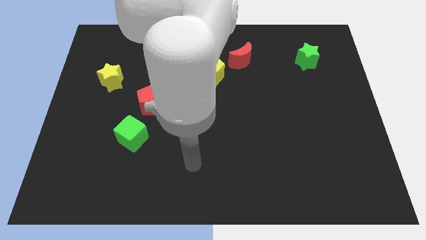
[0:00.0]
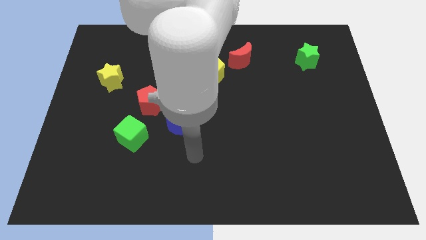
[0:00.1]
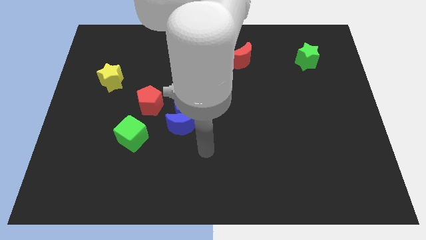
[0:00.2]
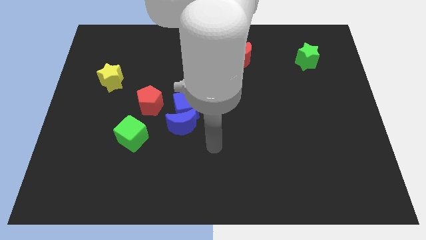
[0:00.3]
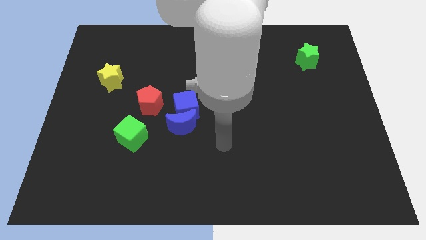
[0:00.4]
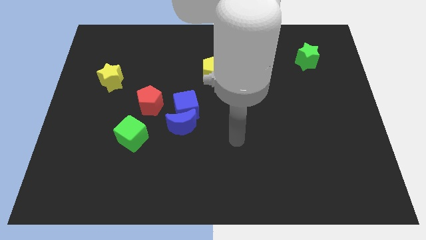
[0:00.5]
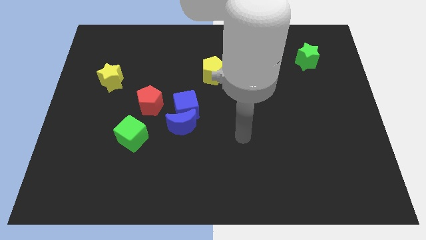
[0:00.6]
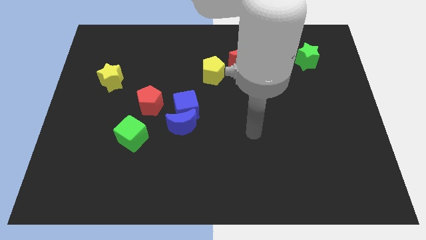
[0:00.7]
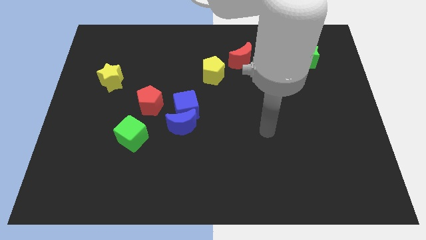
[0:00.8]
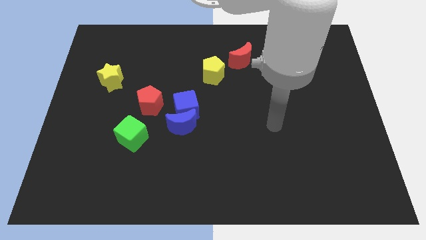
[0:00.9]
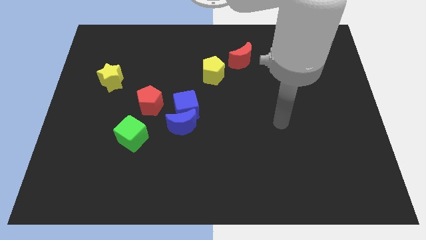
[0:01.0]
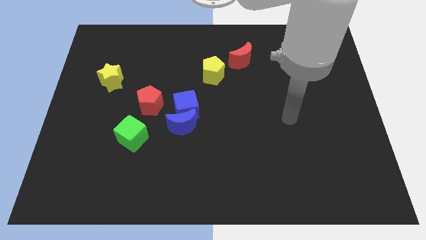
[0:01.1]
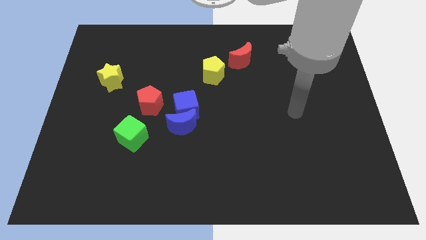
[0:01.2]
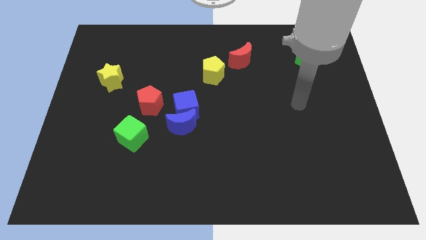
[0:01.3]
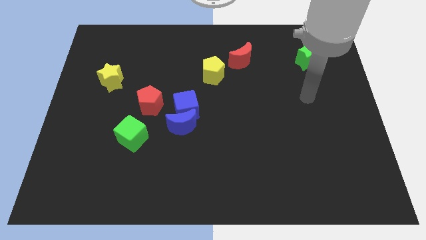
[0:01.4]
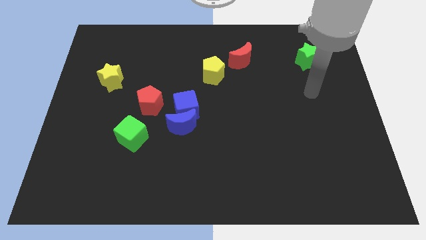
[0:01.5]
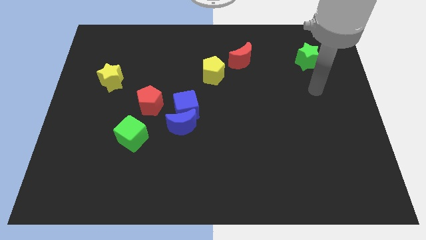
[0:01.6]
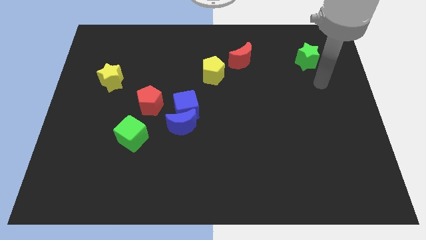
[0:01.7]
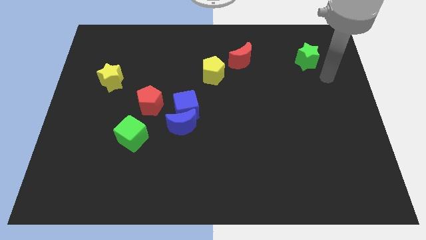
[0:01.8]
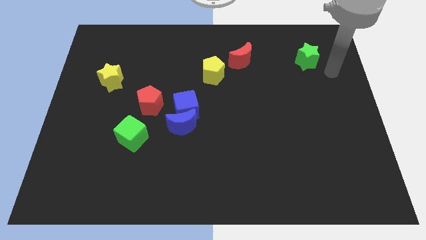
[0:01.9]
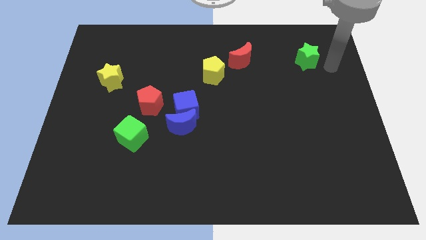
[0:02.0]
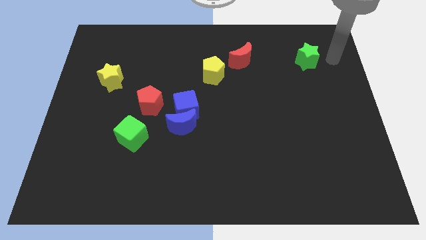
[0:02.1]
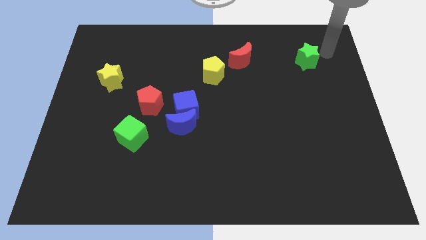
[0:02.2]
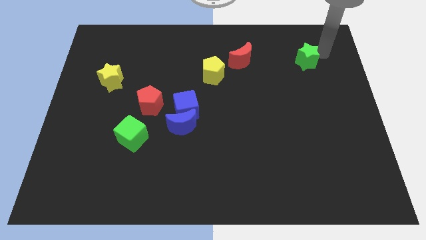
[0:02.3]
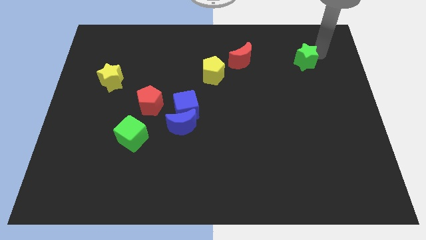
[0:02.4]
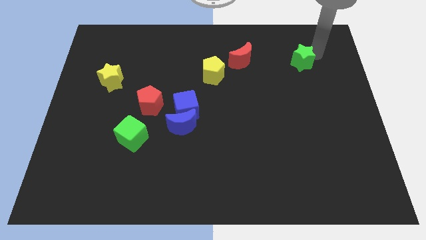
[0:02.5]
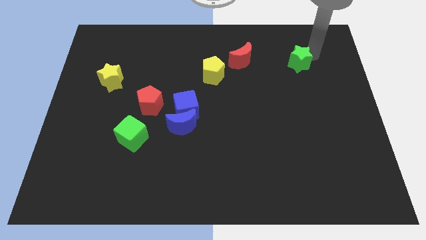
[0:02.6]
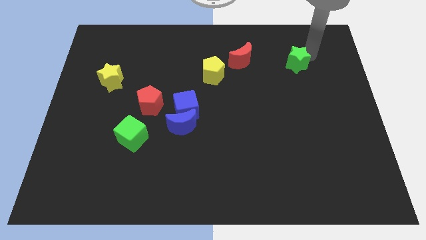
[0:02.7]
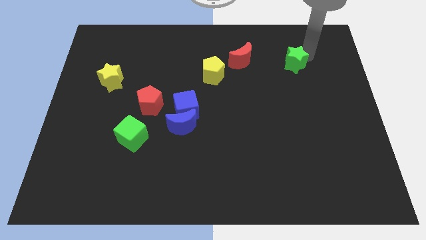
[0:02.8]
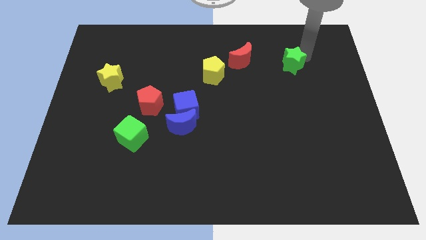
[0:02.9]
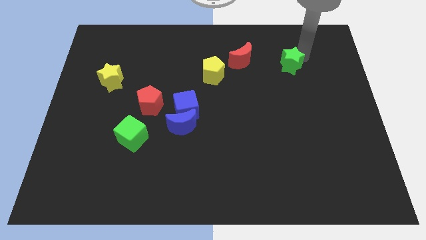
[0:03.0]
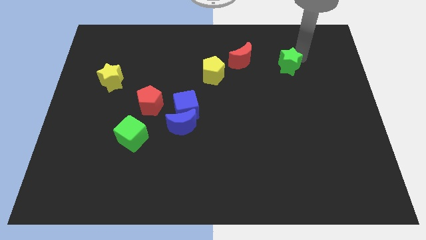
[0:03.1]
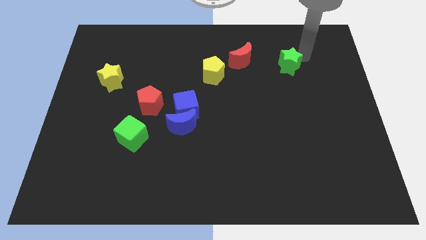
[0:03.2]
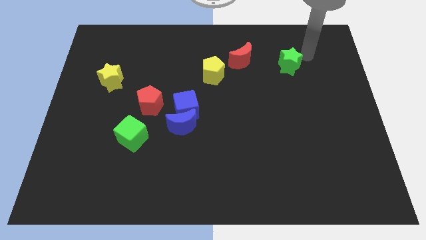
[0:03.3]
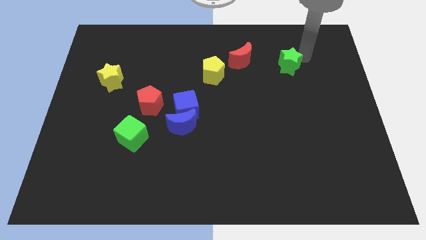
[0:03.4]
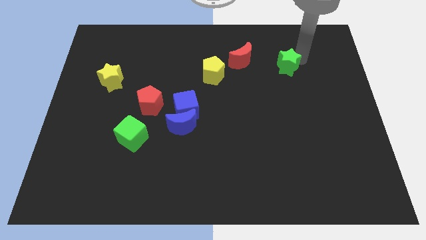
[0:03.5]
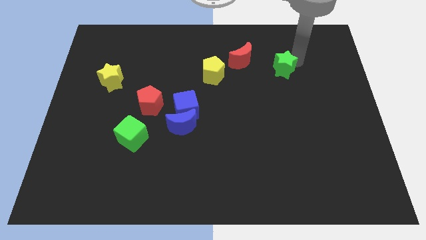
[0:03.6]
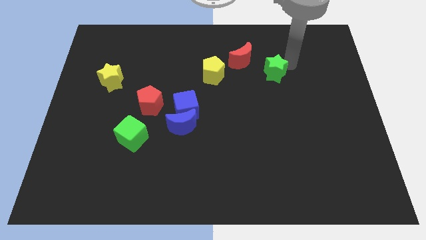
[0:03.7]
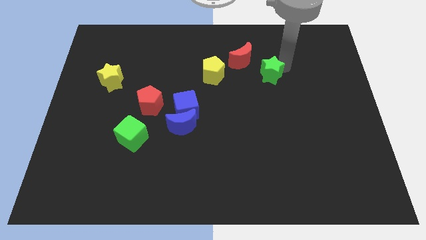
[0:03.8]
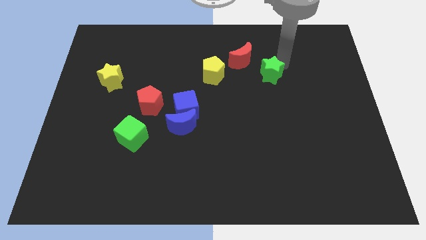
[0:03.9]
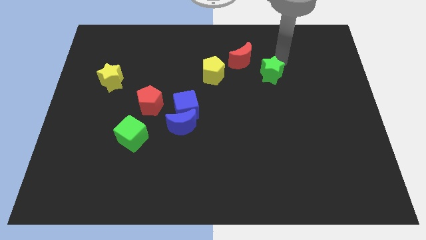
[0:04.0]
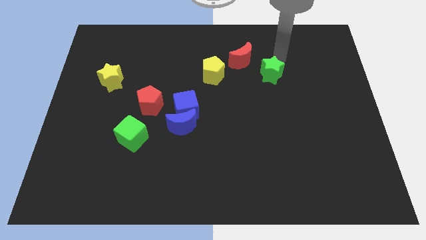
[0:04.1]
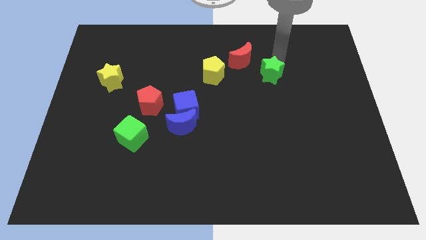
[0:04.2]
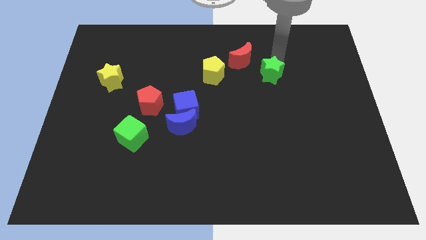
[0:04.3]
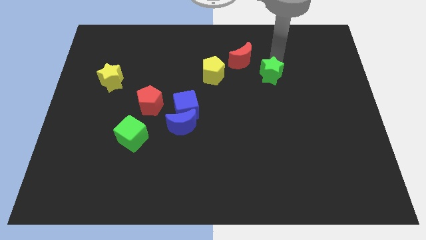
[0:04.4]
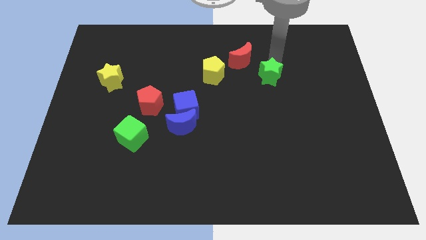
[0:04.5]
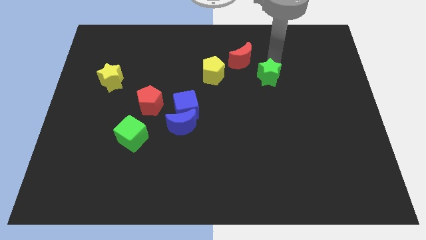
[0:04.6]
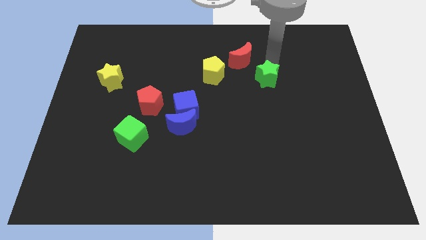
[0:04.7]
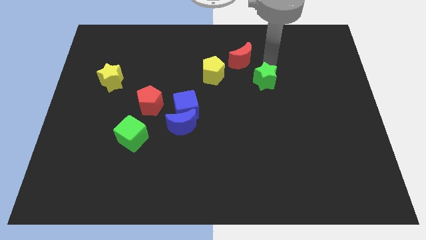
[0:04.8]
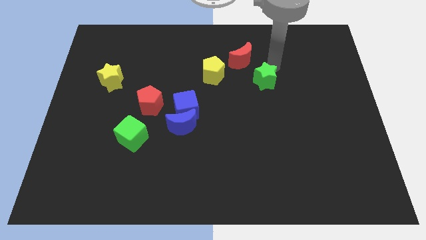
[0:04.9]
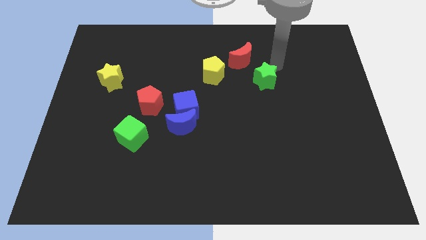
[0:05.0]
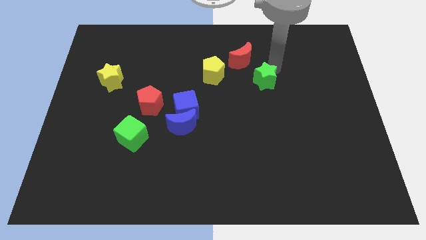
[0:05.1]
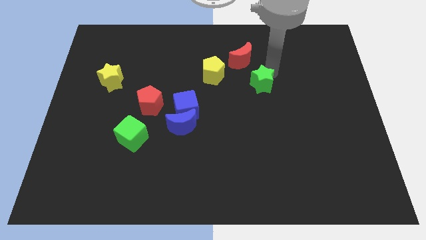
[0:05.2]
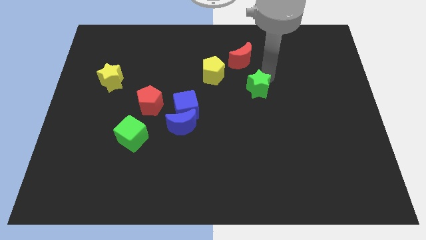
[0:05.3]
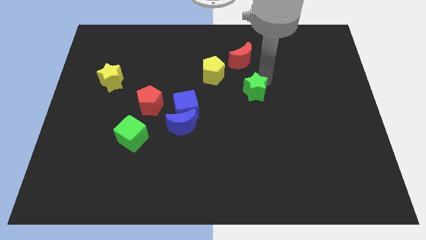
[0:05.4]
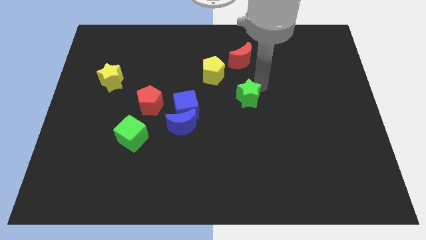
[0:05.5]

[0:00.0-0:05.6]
slide the green star down and to the left diagonally

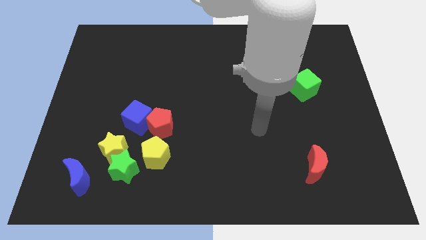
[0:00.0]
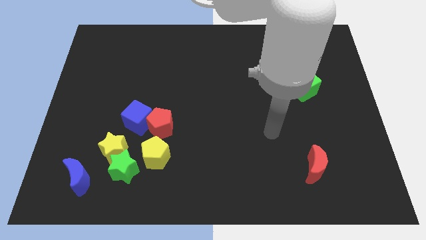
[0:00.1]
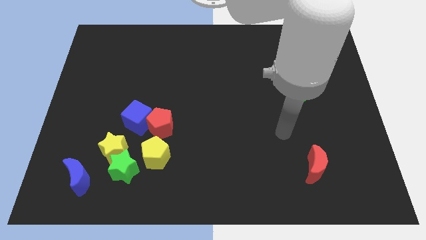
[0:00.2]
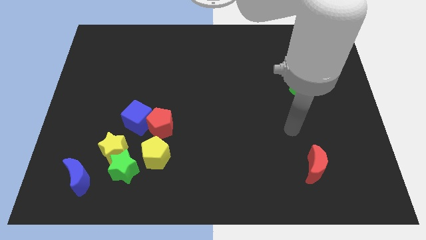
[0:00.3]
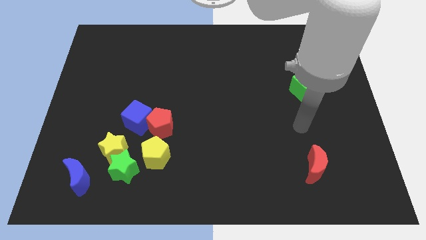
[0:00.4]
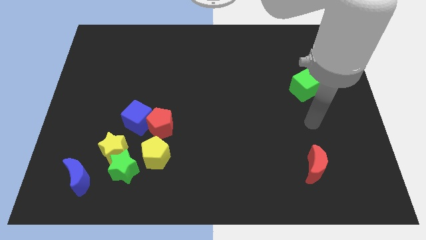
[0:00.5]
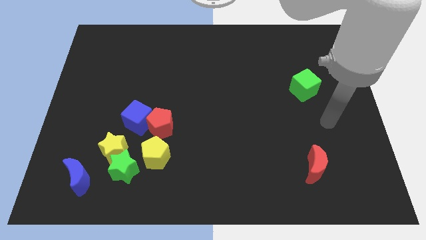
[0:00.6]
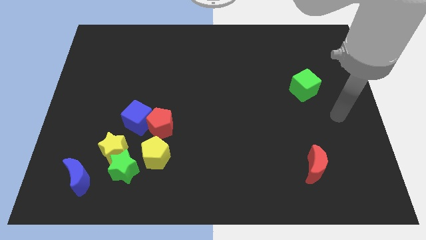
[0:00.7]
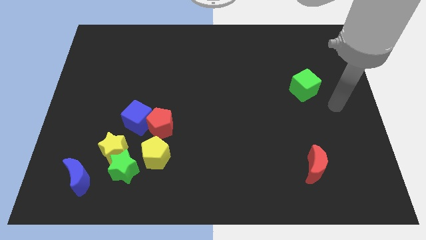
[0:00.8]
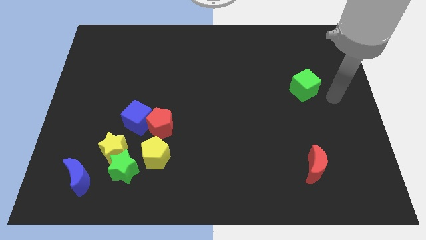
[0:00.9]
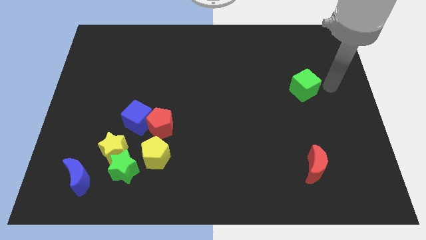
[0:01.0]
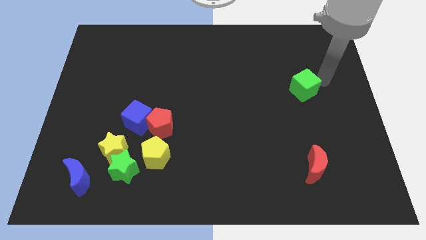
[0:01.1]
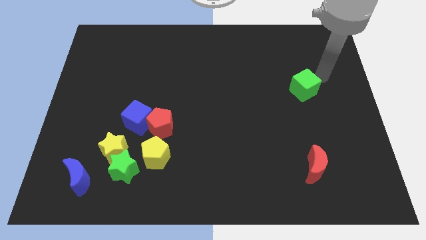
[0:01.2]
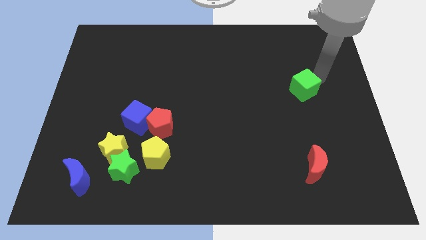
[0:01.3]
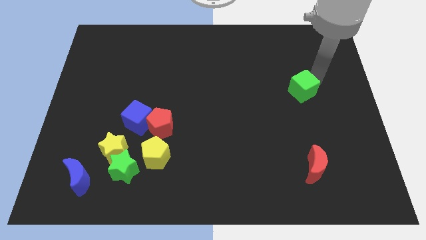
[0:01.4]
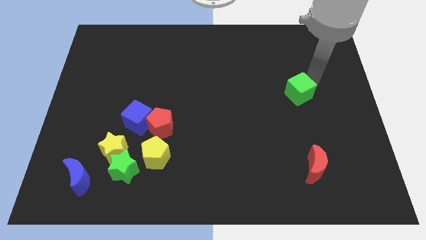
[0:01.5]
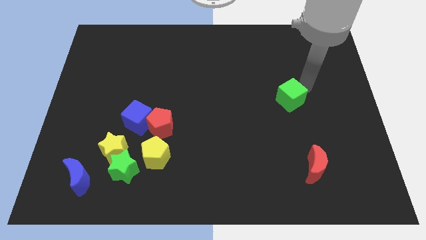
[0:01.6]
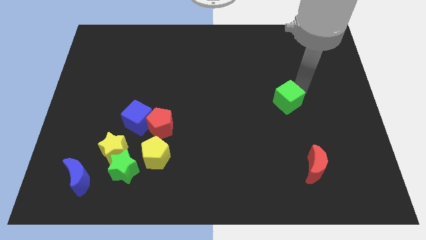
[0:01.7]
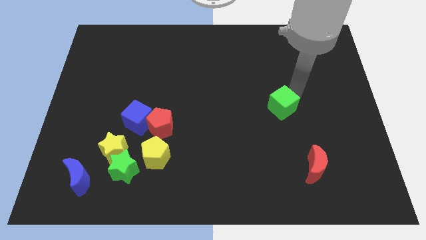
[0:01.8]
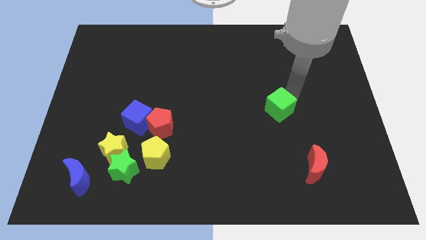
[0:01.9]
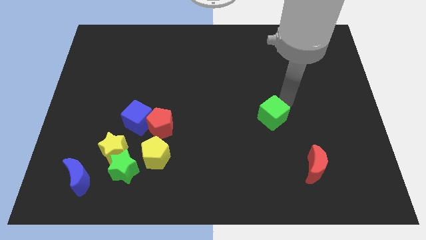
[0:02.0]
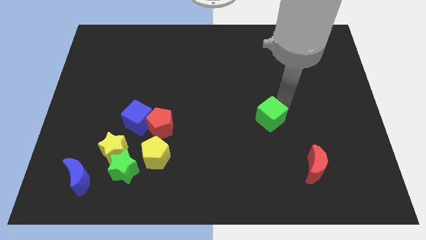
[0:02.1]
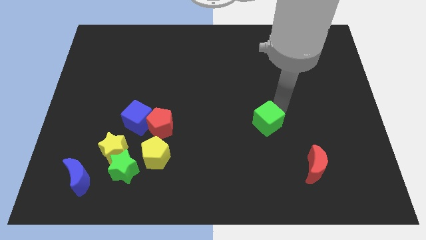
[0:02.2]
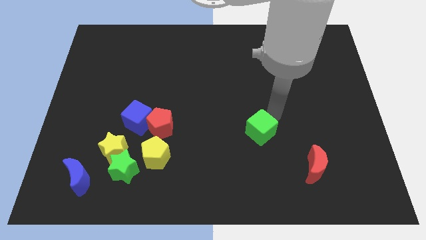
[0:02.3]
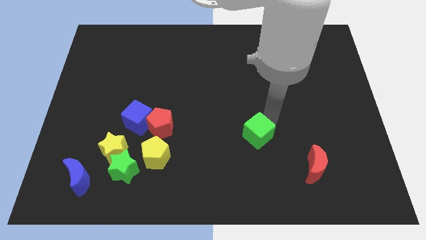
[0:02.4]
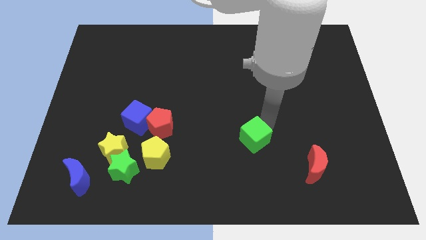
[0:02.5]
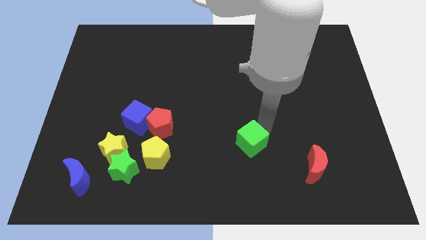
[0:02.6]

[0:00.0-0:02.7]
move the green cube diagonally downwards and left
